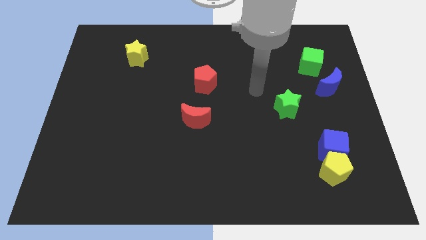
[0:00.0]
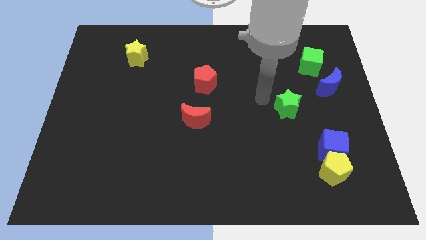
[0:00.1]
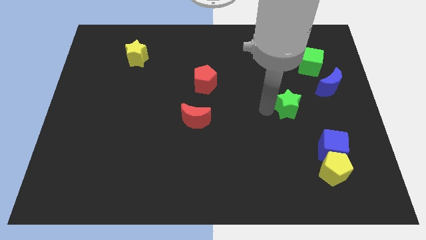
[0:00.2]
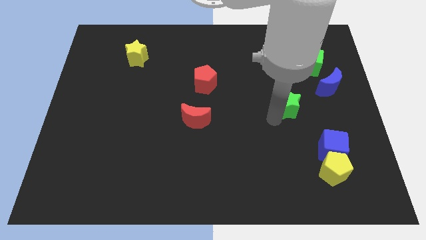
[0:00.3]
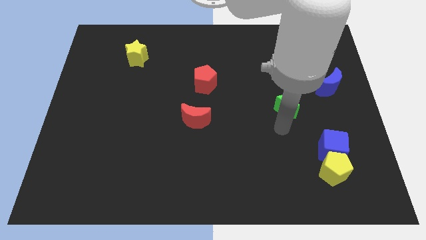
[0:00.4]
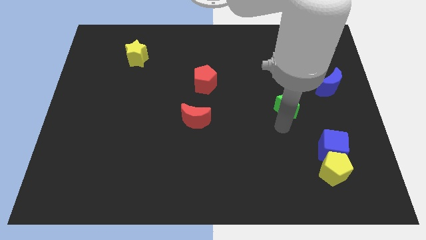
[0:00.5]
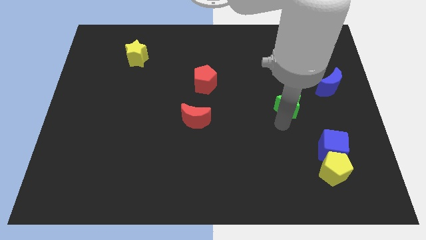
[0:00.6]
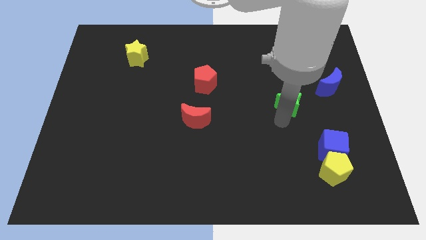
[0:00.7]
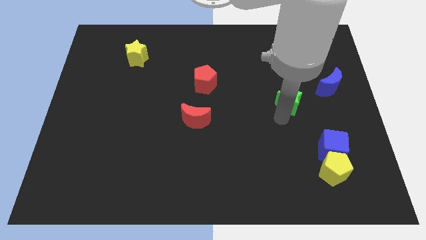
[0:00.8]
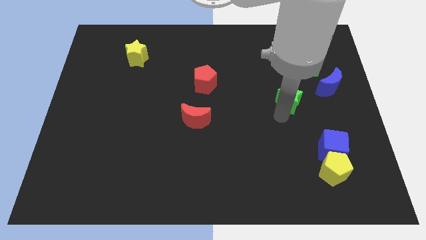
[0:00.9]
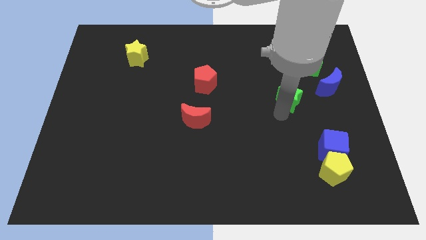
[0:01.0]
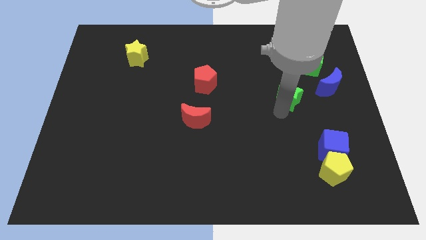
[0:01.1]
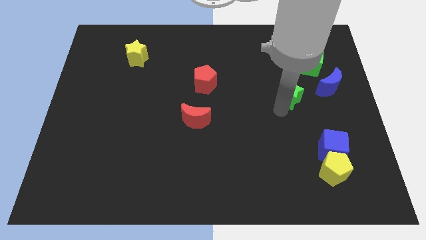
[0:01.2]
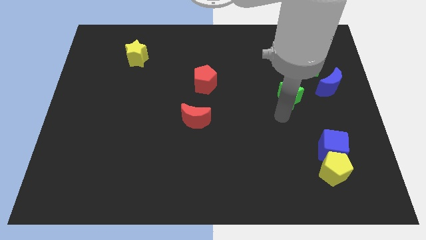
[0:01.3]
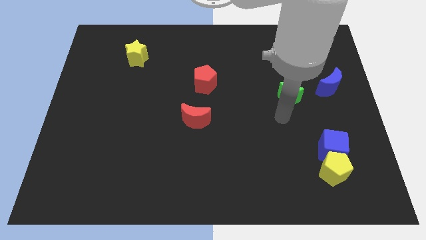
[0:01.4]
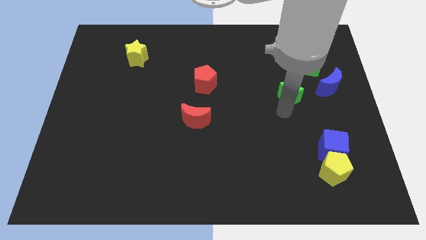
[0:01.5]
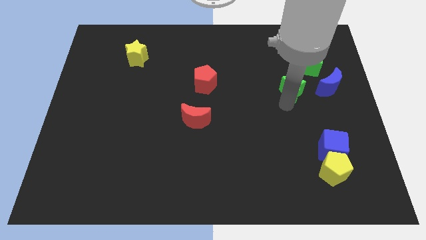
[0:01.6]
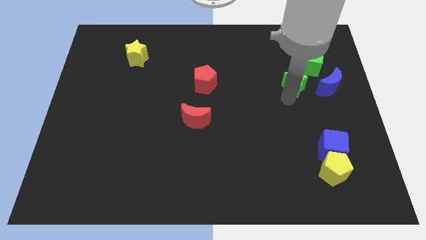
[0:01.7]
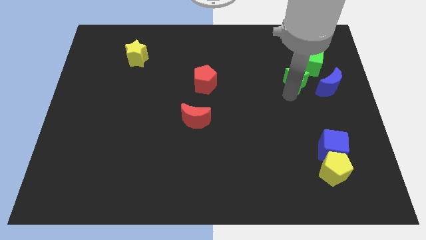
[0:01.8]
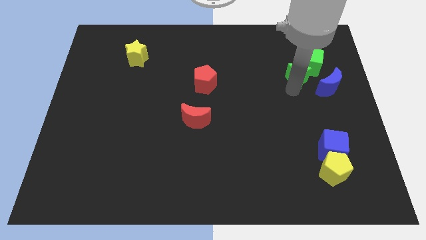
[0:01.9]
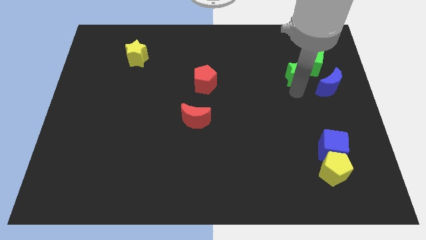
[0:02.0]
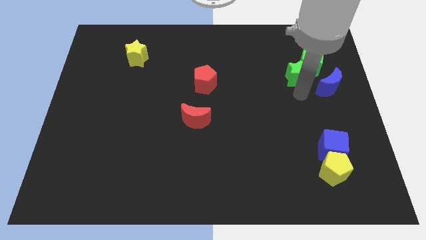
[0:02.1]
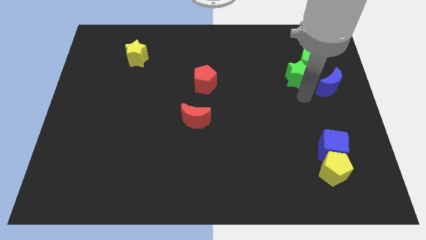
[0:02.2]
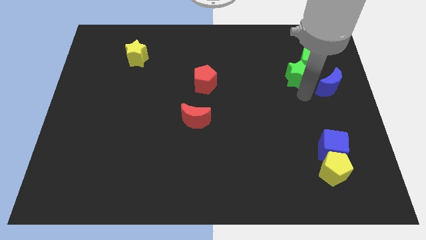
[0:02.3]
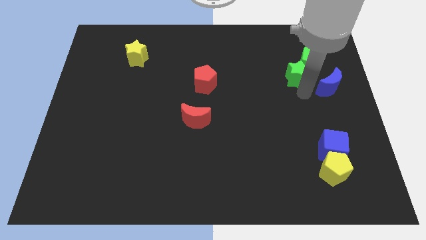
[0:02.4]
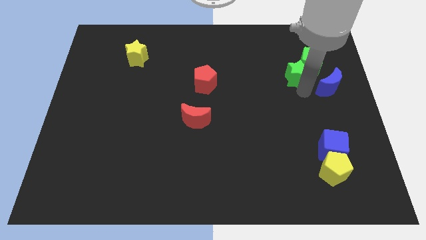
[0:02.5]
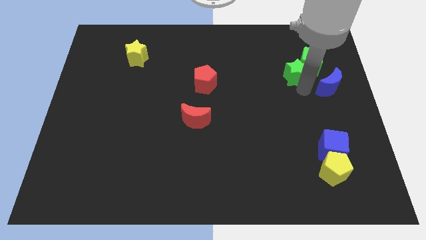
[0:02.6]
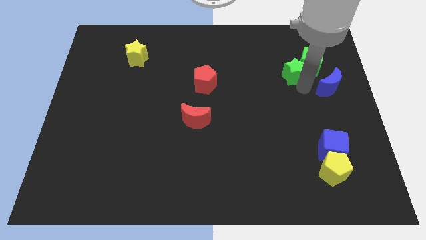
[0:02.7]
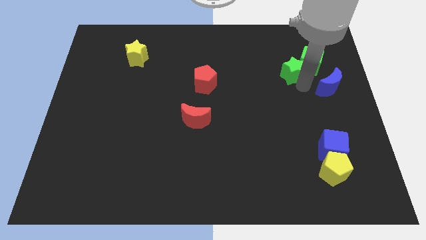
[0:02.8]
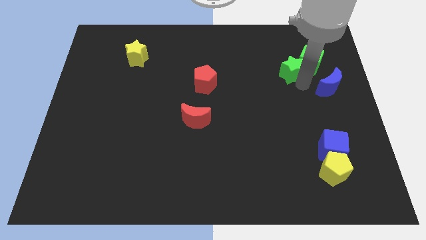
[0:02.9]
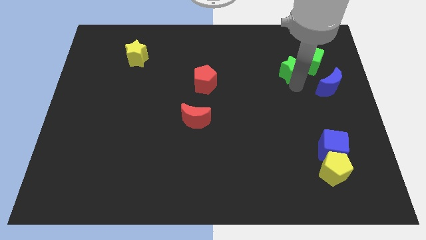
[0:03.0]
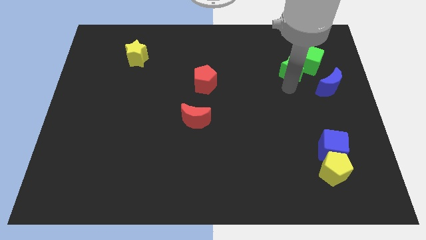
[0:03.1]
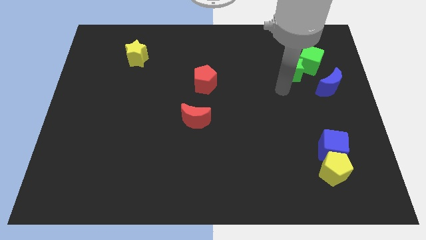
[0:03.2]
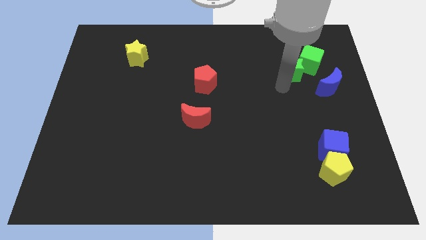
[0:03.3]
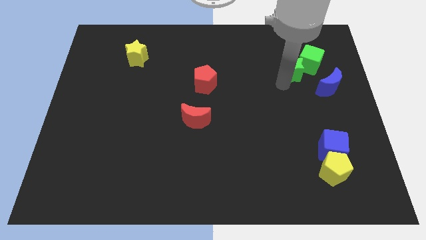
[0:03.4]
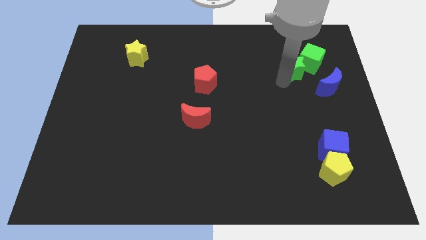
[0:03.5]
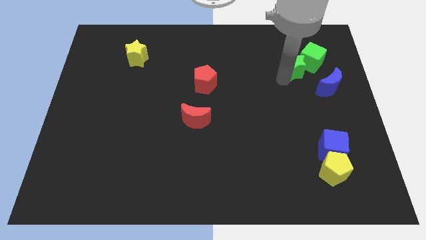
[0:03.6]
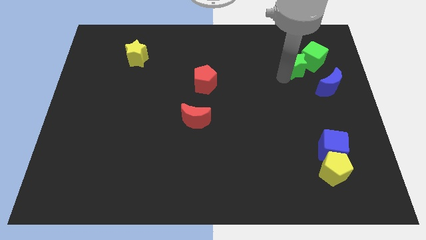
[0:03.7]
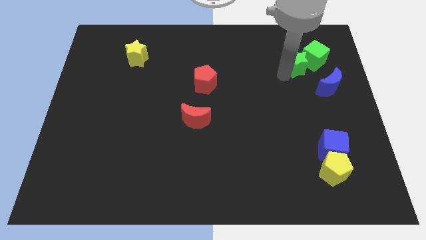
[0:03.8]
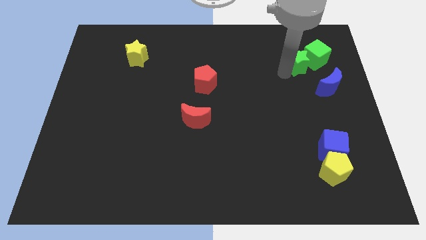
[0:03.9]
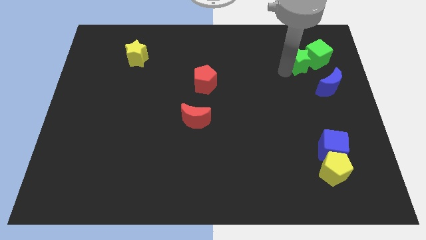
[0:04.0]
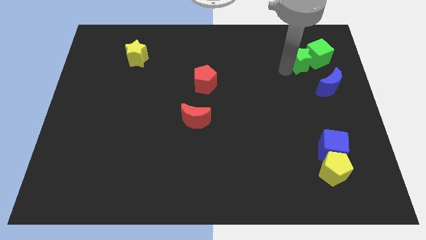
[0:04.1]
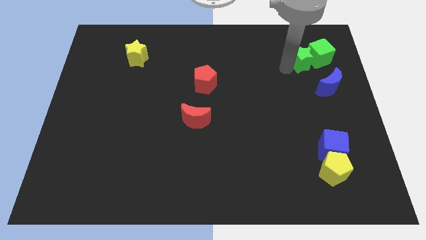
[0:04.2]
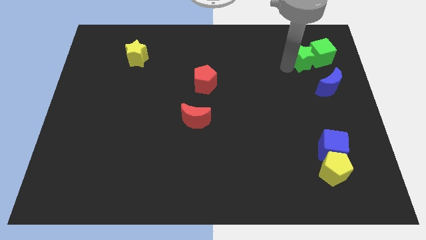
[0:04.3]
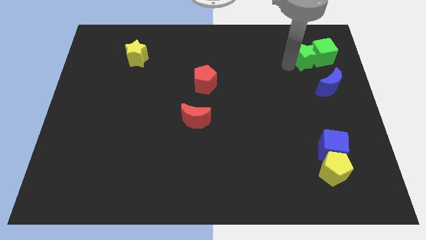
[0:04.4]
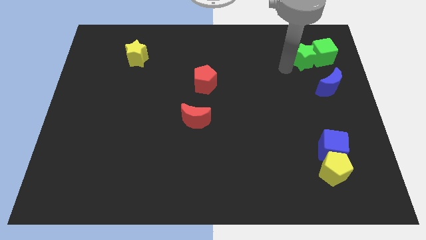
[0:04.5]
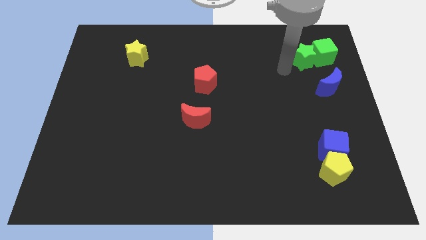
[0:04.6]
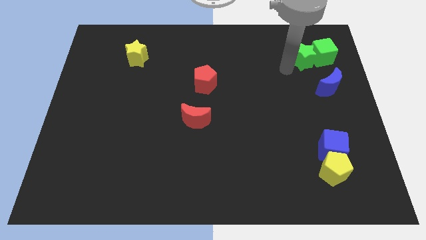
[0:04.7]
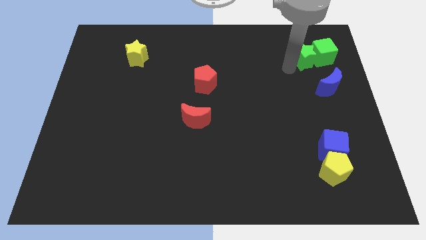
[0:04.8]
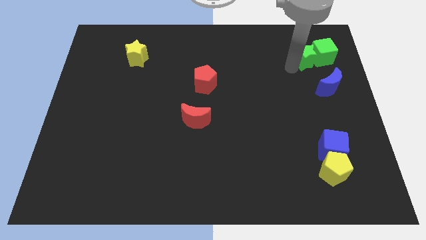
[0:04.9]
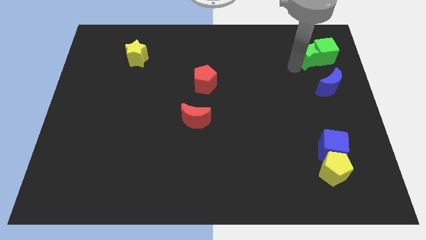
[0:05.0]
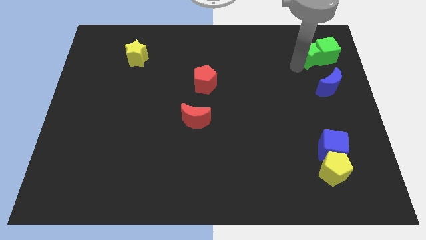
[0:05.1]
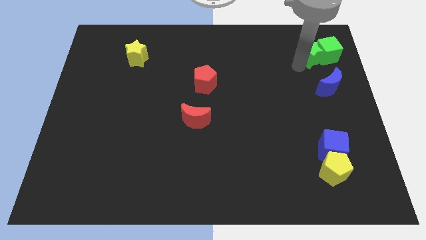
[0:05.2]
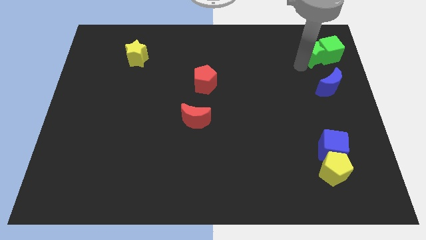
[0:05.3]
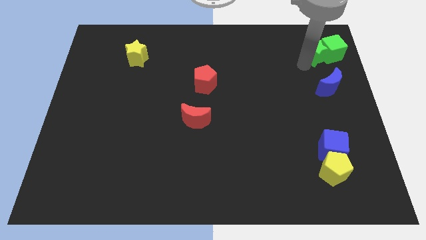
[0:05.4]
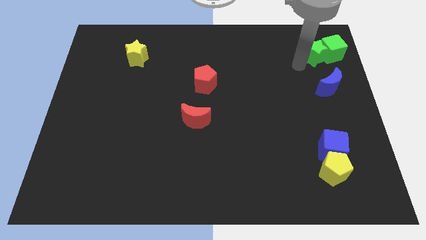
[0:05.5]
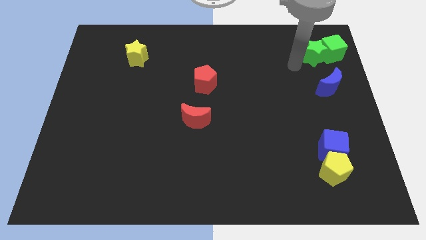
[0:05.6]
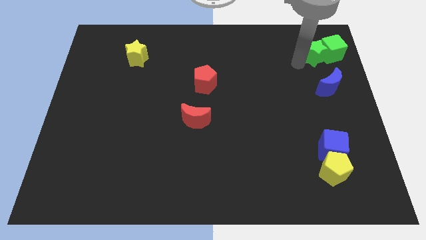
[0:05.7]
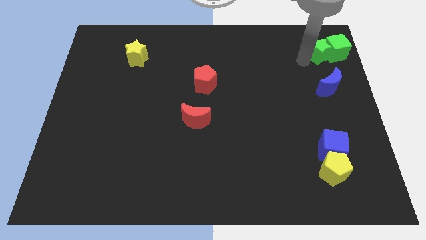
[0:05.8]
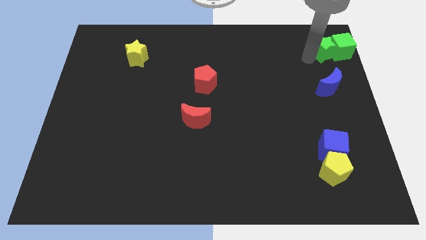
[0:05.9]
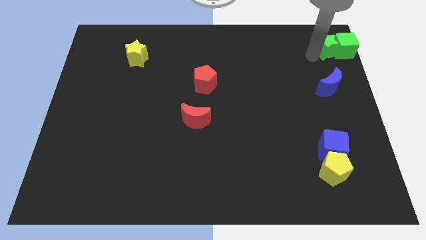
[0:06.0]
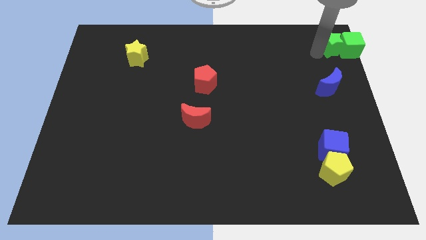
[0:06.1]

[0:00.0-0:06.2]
push the green star to the top right
